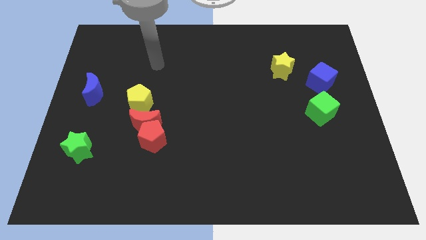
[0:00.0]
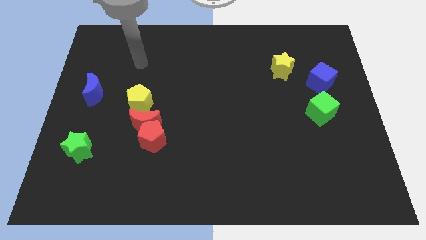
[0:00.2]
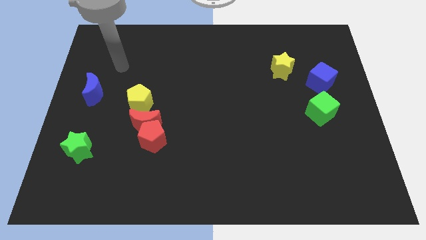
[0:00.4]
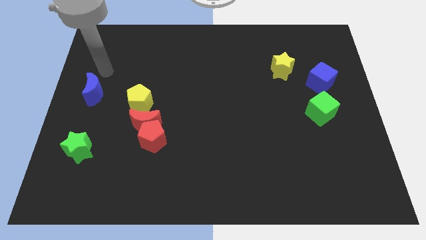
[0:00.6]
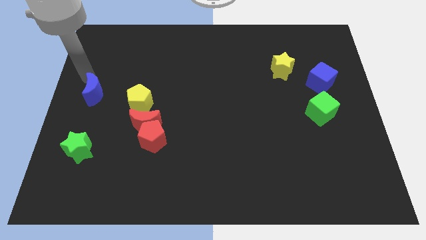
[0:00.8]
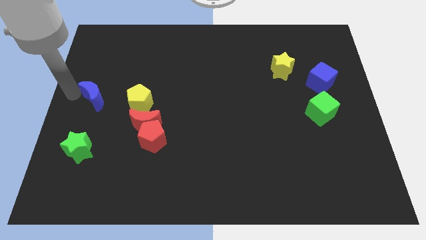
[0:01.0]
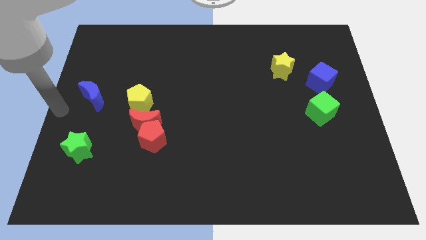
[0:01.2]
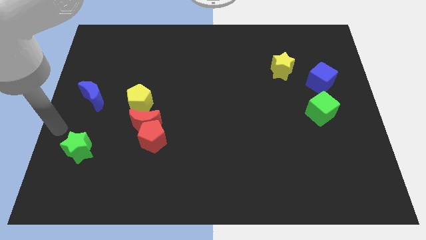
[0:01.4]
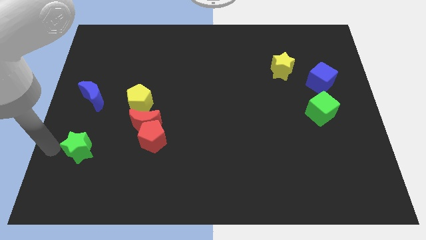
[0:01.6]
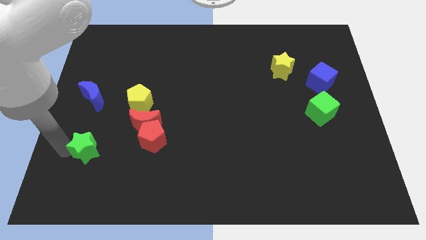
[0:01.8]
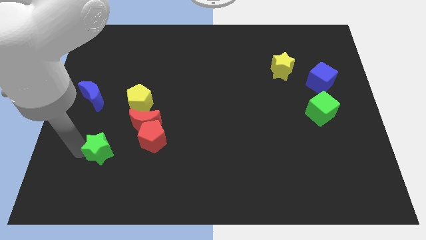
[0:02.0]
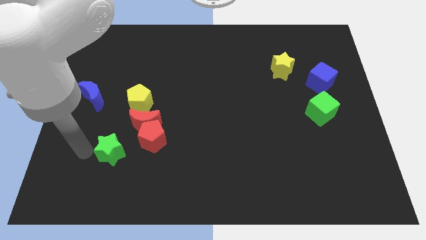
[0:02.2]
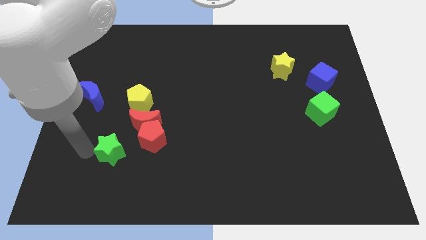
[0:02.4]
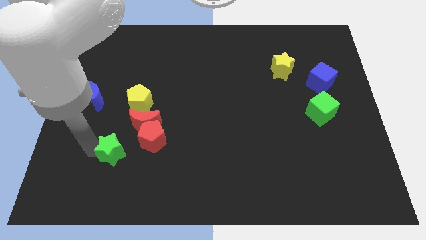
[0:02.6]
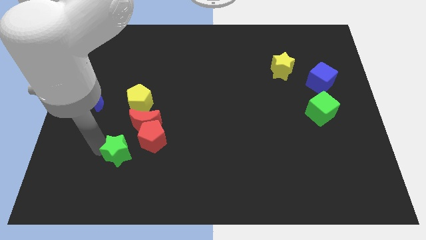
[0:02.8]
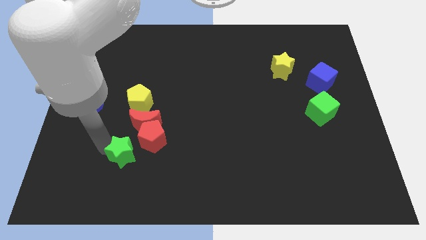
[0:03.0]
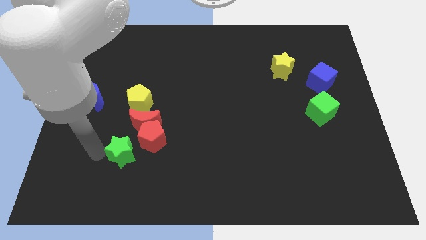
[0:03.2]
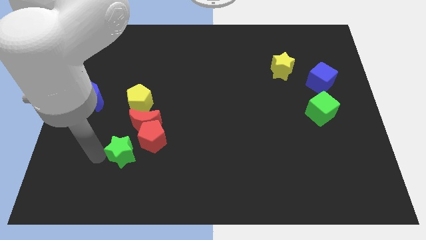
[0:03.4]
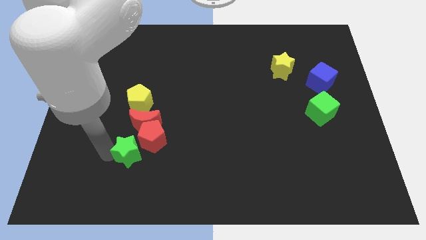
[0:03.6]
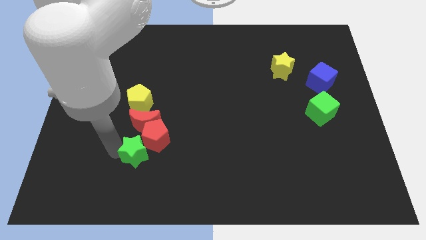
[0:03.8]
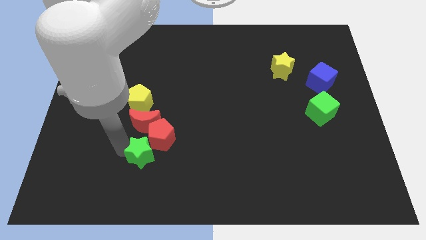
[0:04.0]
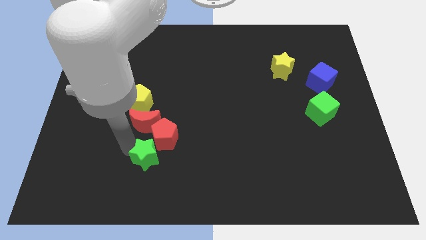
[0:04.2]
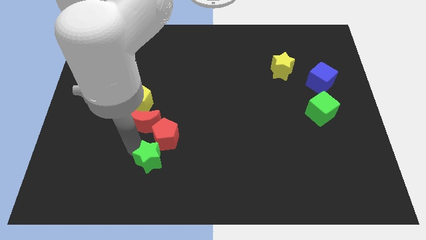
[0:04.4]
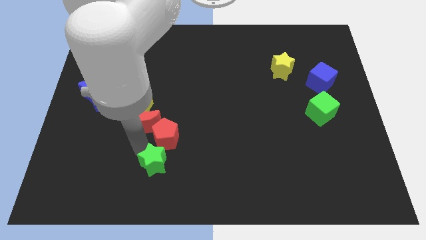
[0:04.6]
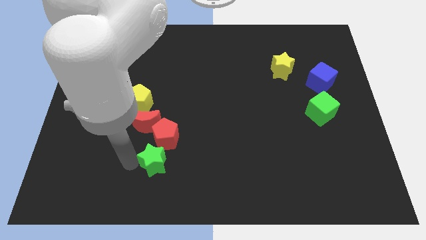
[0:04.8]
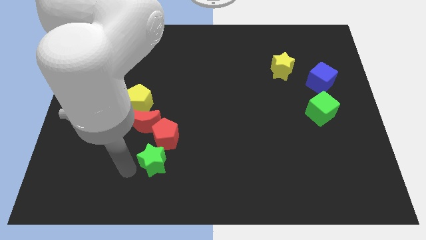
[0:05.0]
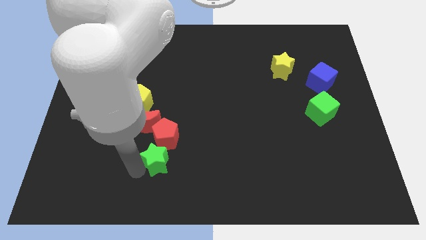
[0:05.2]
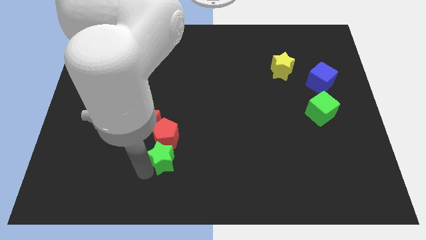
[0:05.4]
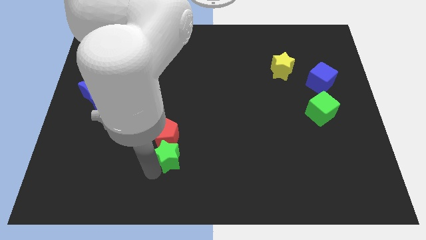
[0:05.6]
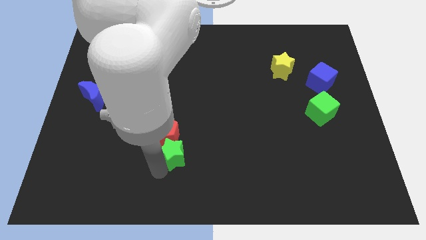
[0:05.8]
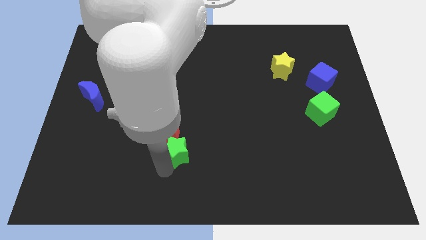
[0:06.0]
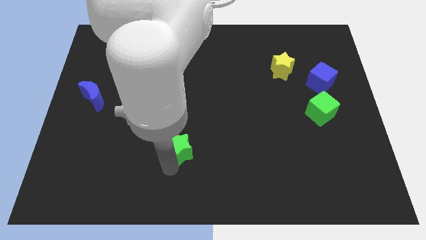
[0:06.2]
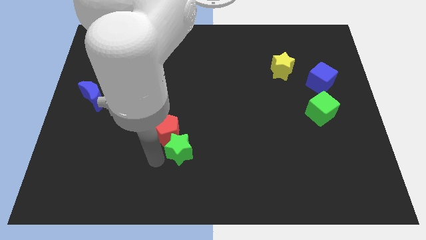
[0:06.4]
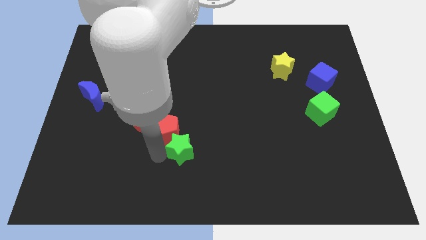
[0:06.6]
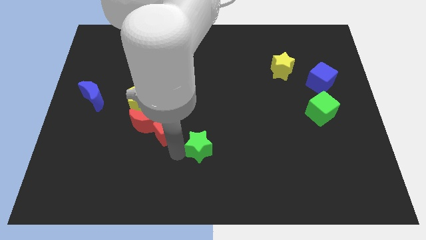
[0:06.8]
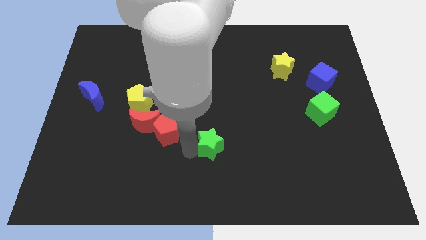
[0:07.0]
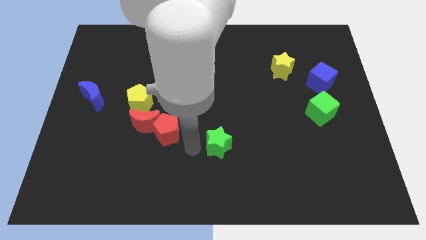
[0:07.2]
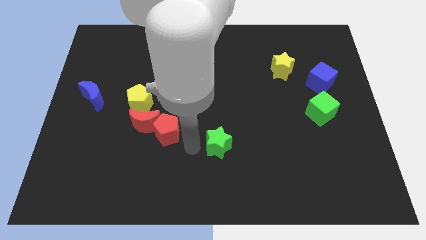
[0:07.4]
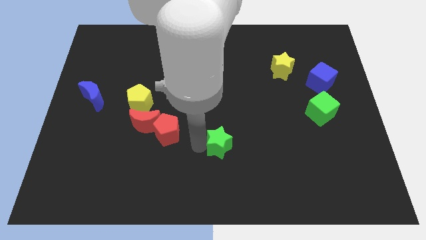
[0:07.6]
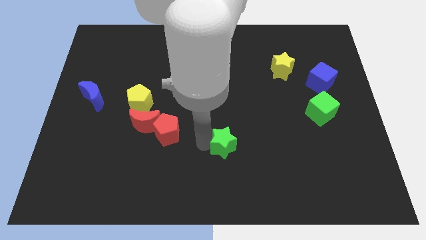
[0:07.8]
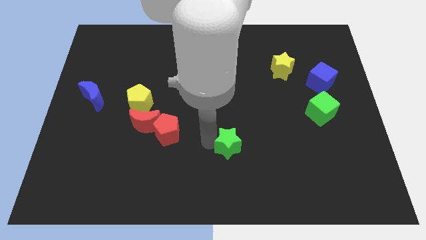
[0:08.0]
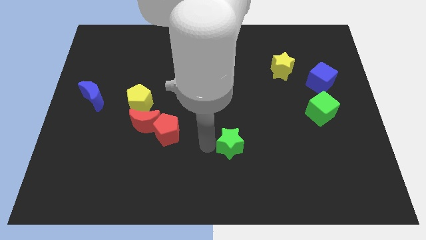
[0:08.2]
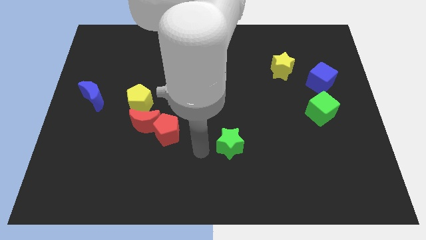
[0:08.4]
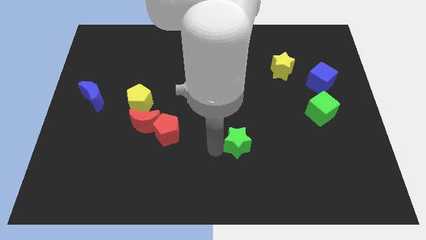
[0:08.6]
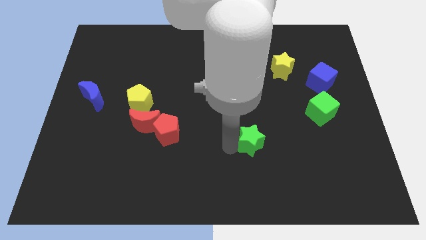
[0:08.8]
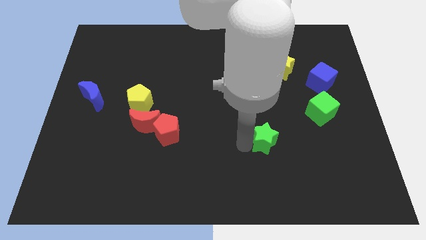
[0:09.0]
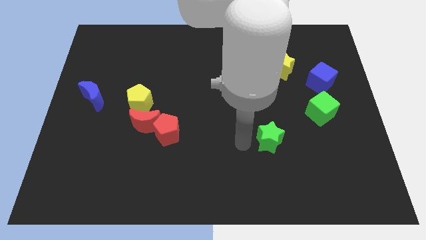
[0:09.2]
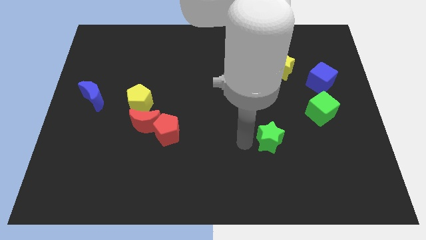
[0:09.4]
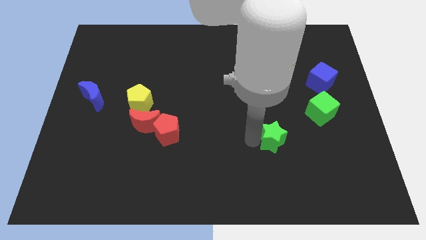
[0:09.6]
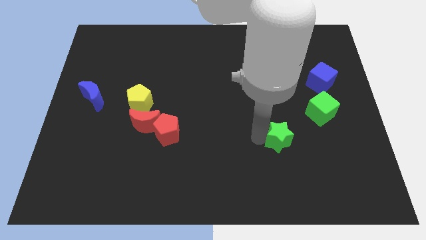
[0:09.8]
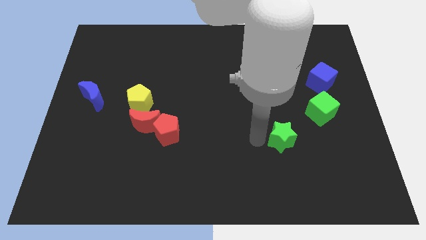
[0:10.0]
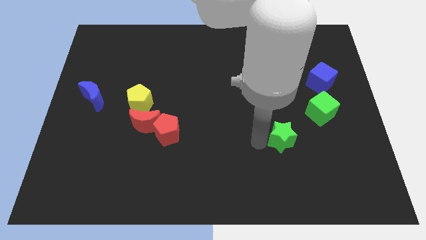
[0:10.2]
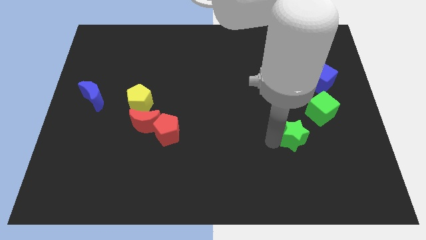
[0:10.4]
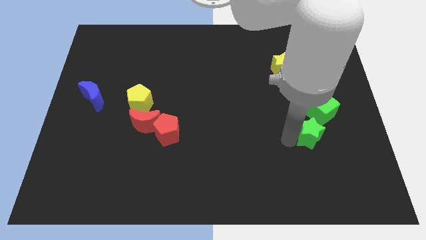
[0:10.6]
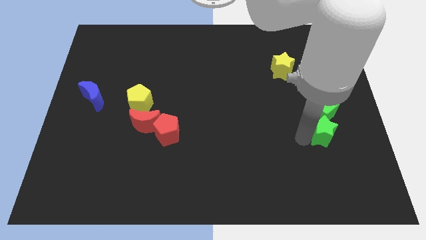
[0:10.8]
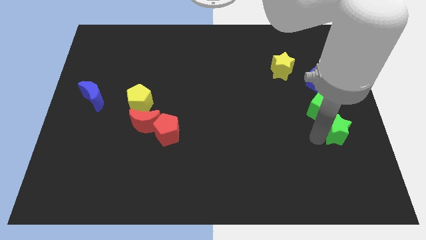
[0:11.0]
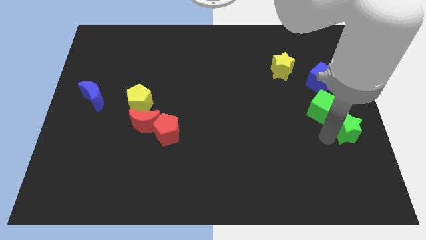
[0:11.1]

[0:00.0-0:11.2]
move the green star to the right side
